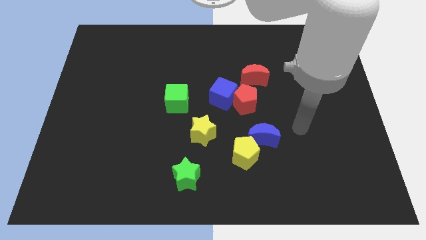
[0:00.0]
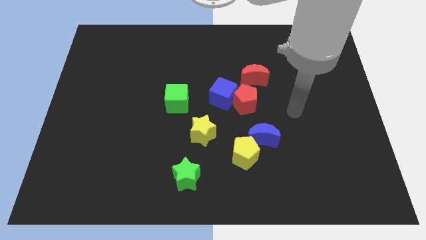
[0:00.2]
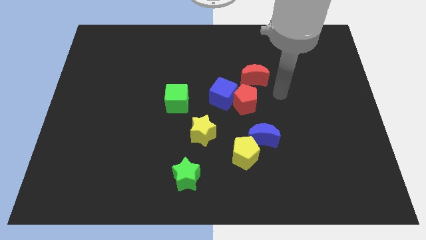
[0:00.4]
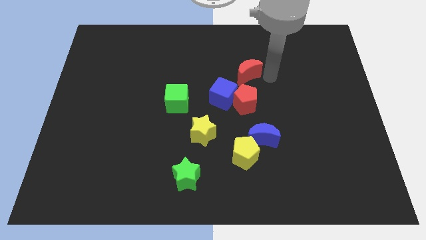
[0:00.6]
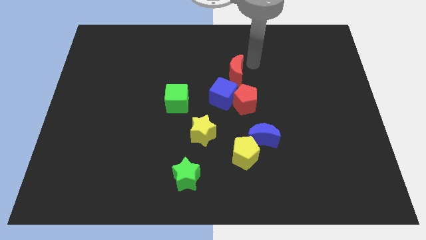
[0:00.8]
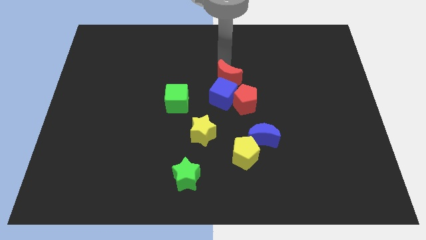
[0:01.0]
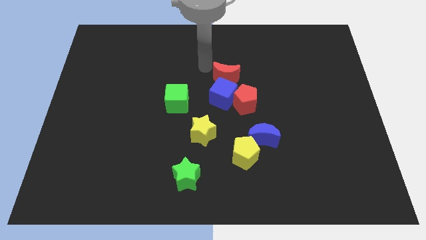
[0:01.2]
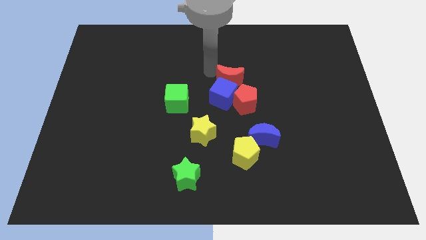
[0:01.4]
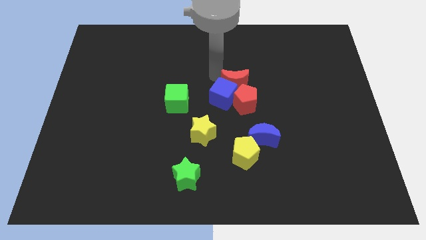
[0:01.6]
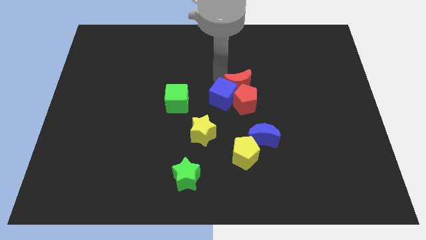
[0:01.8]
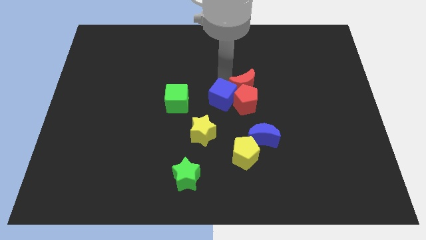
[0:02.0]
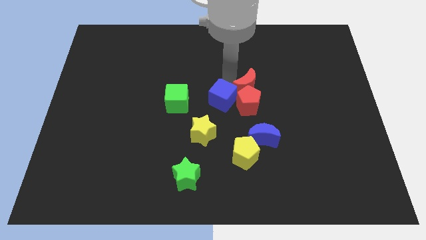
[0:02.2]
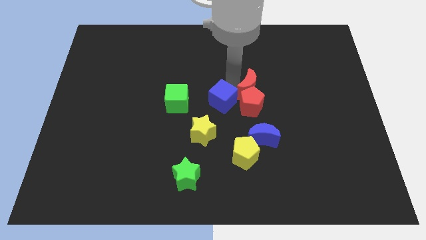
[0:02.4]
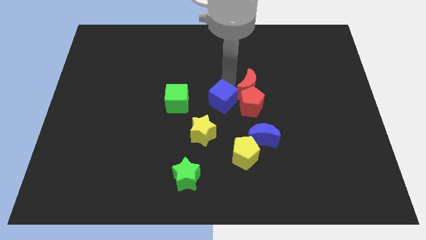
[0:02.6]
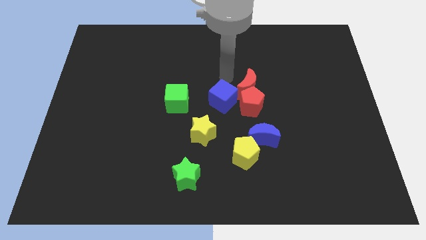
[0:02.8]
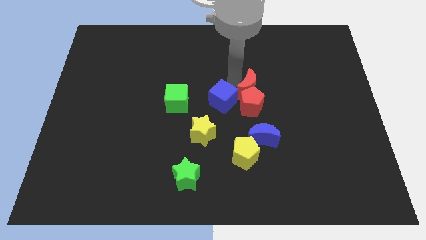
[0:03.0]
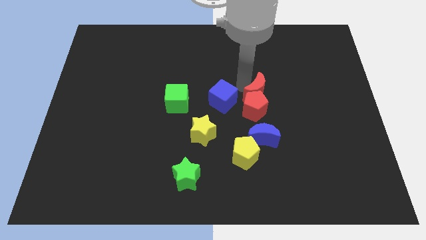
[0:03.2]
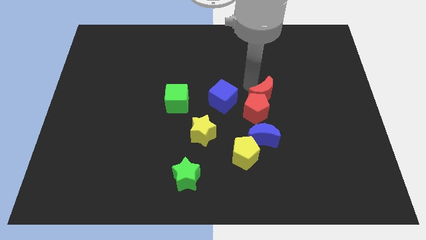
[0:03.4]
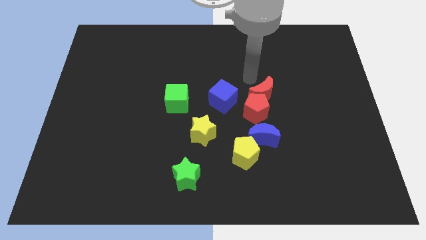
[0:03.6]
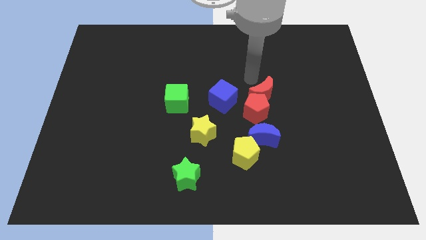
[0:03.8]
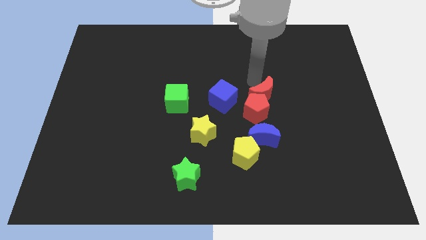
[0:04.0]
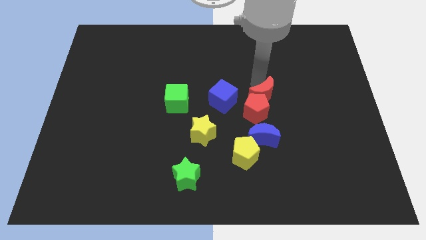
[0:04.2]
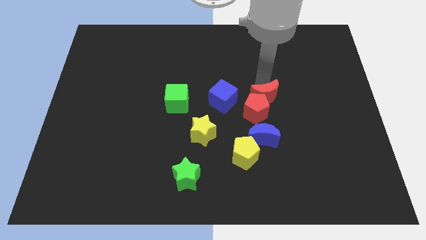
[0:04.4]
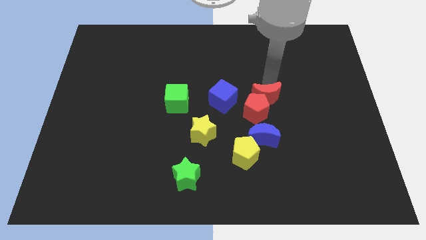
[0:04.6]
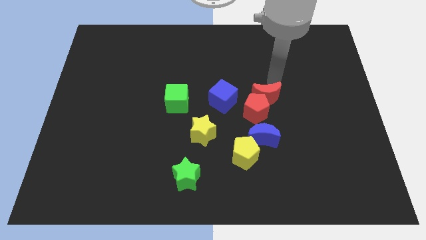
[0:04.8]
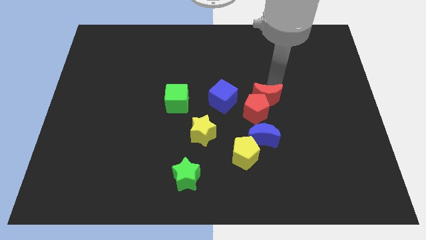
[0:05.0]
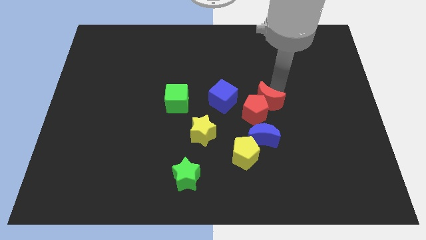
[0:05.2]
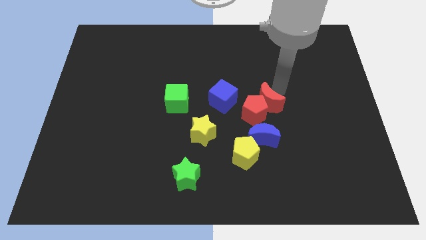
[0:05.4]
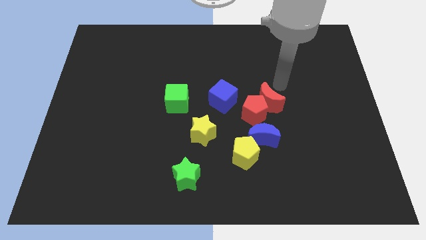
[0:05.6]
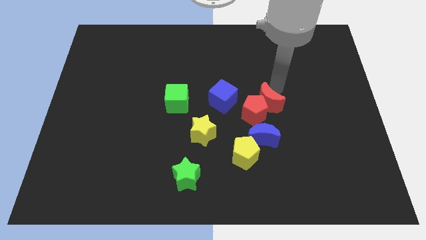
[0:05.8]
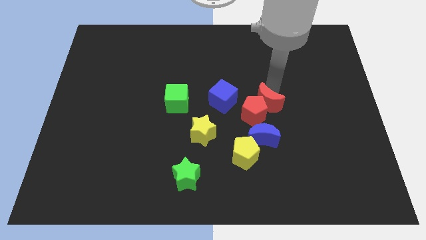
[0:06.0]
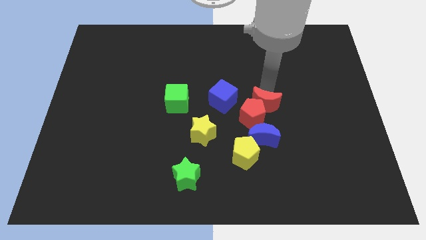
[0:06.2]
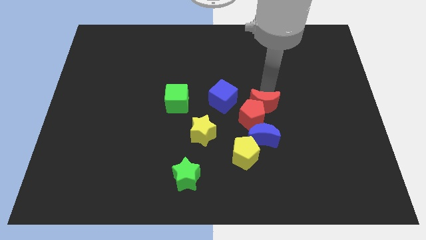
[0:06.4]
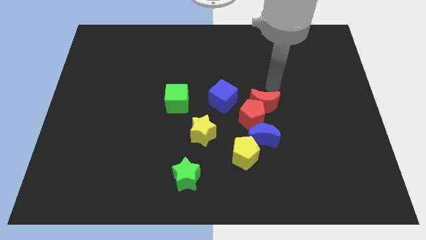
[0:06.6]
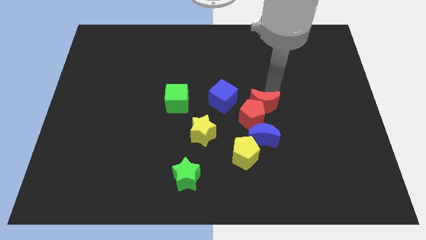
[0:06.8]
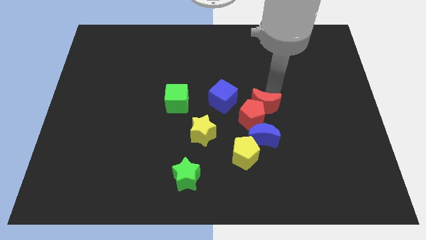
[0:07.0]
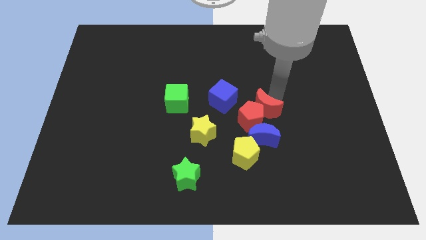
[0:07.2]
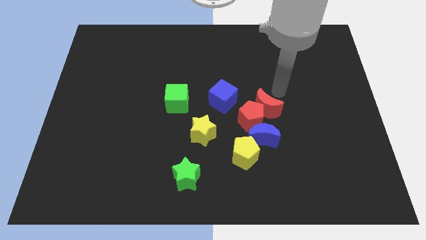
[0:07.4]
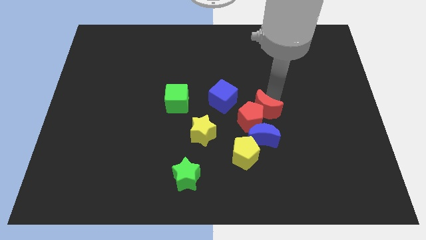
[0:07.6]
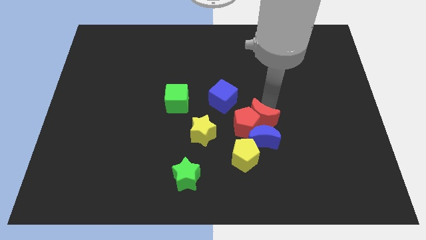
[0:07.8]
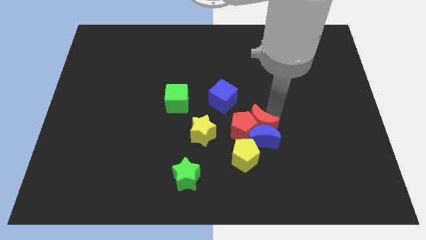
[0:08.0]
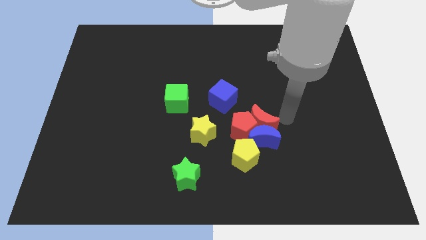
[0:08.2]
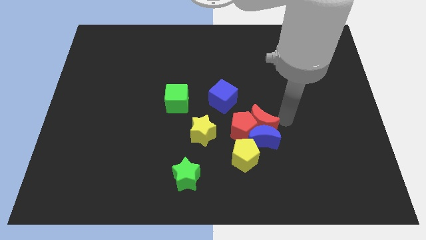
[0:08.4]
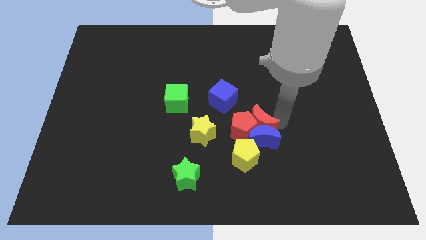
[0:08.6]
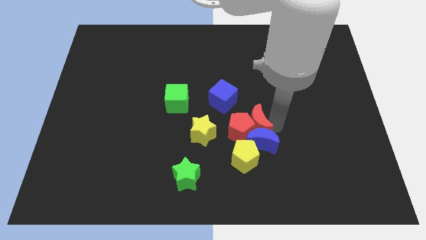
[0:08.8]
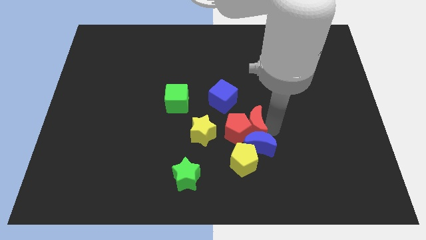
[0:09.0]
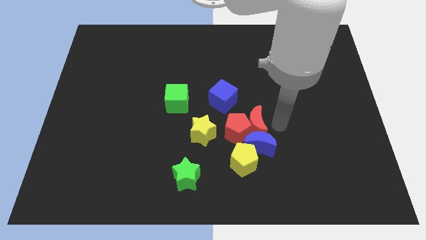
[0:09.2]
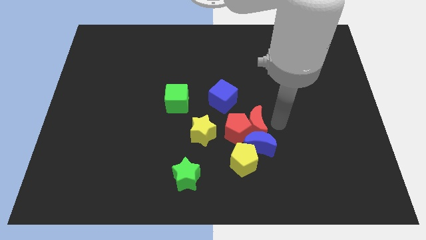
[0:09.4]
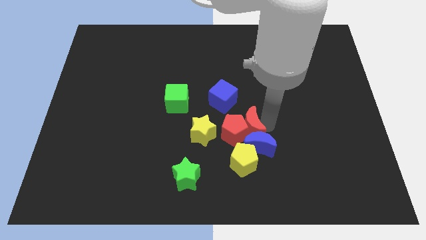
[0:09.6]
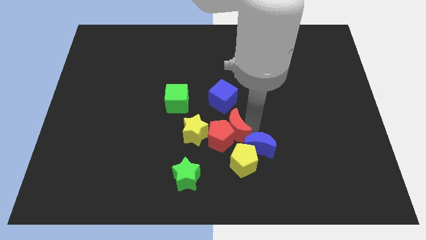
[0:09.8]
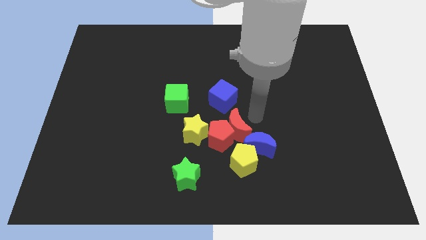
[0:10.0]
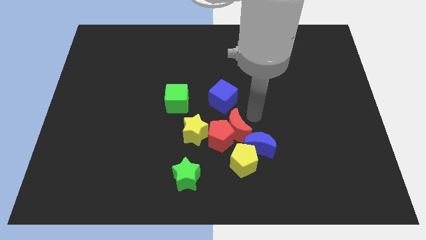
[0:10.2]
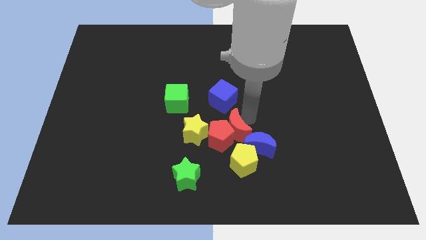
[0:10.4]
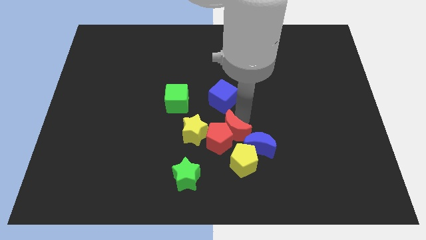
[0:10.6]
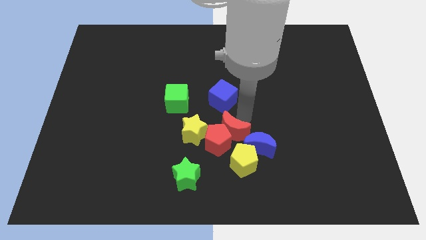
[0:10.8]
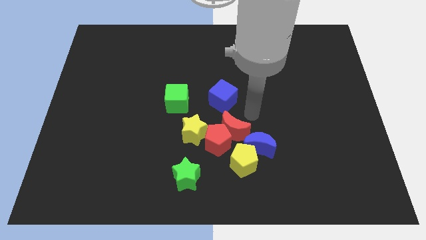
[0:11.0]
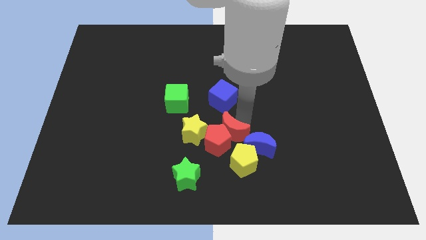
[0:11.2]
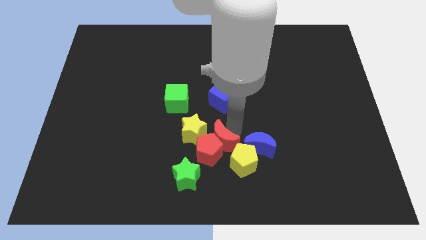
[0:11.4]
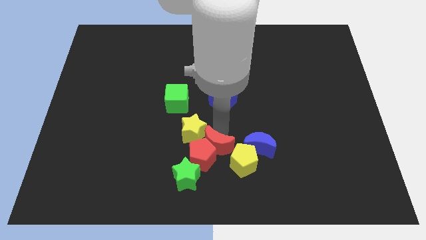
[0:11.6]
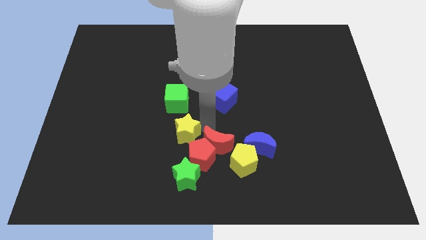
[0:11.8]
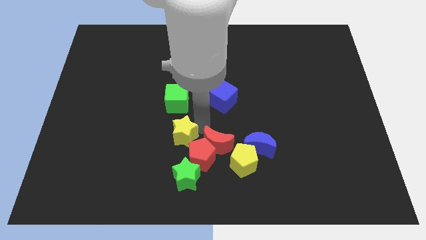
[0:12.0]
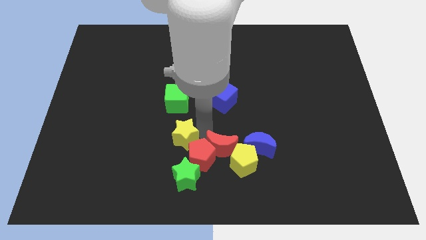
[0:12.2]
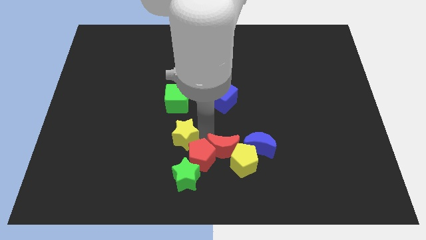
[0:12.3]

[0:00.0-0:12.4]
put the red moon diagonally down and to the left of the blue moon
